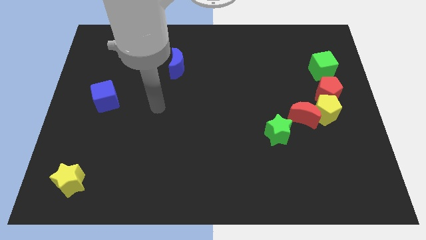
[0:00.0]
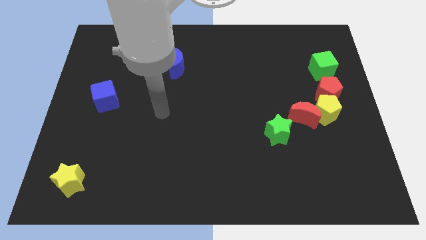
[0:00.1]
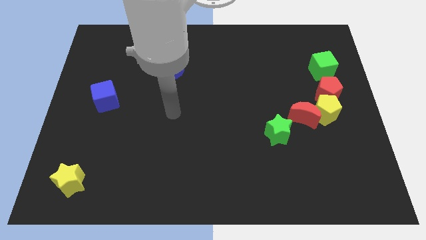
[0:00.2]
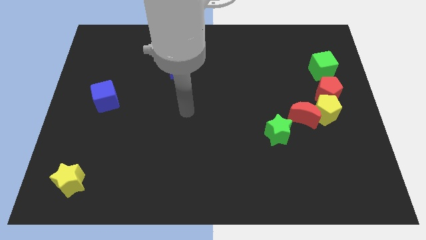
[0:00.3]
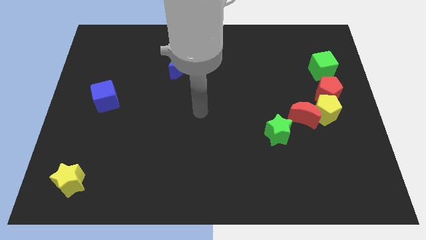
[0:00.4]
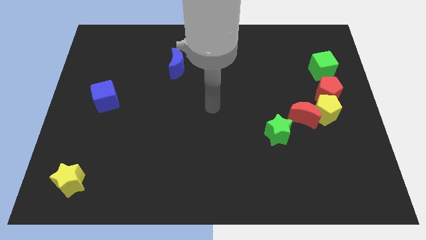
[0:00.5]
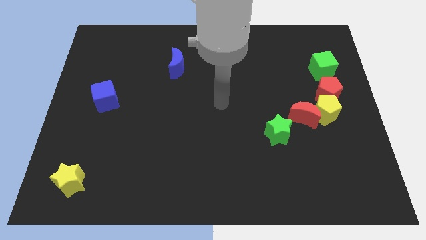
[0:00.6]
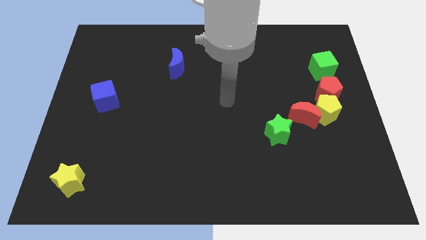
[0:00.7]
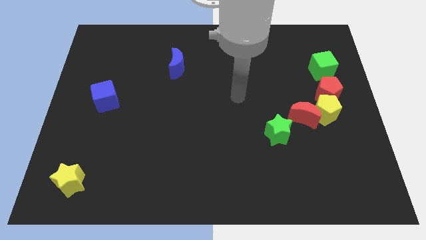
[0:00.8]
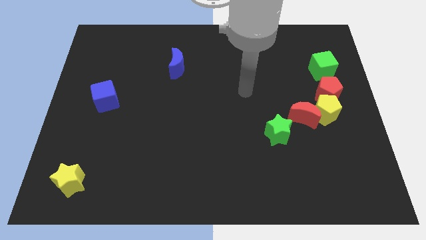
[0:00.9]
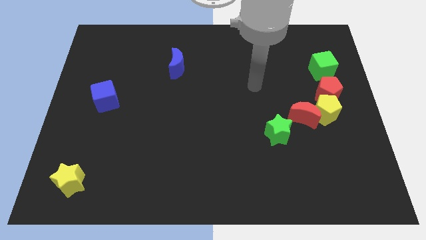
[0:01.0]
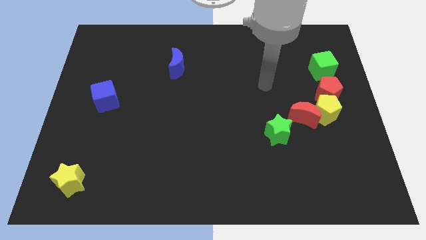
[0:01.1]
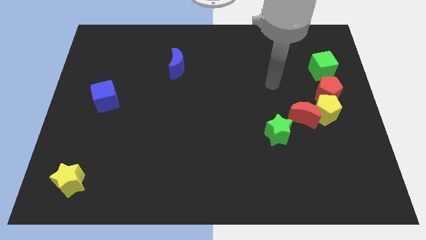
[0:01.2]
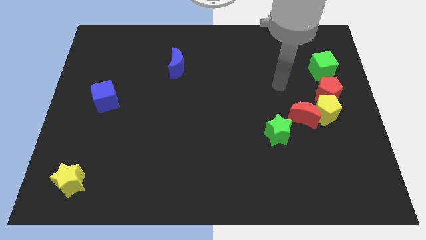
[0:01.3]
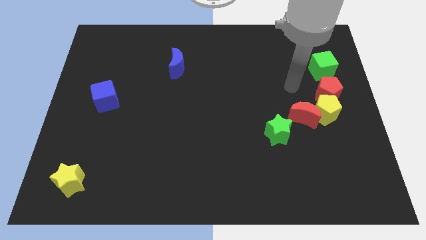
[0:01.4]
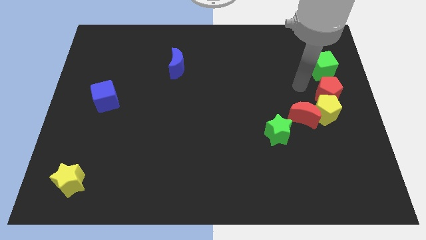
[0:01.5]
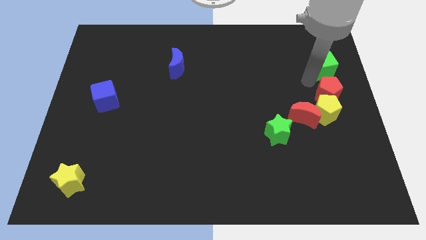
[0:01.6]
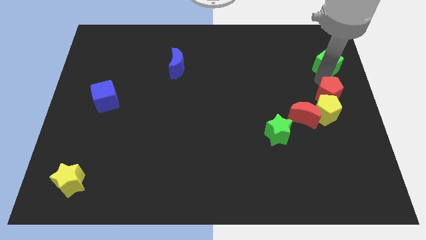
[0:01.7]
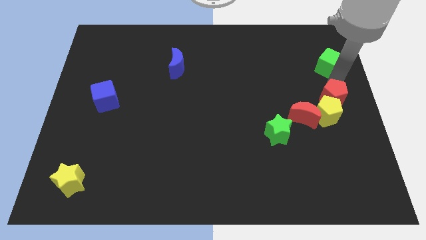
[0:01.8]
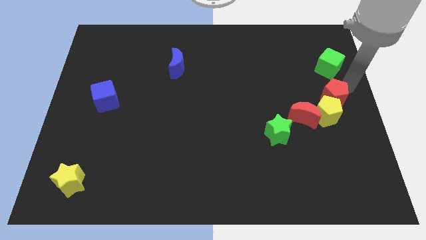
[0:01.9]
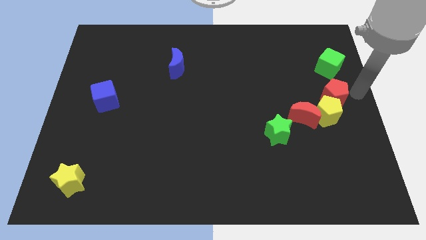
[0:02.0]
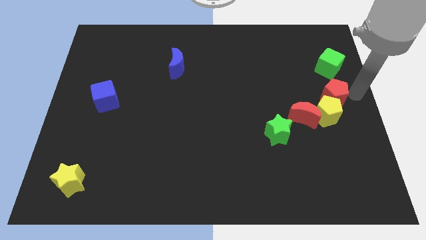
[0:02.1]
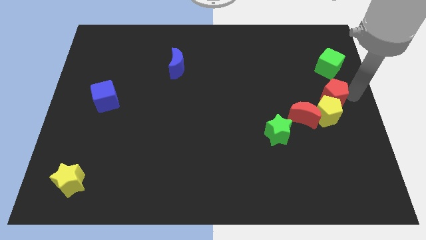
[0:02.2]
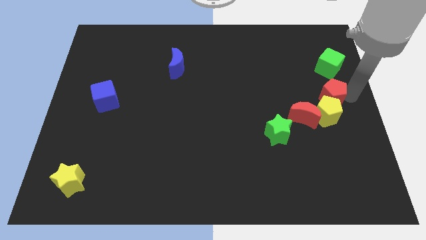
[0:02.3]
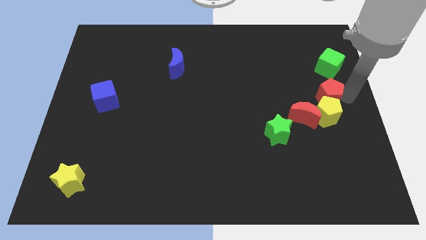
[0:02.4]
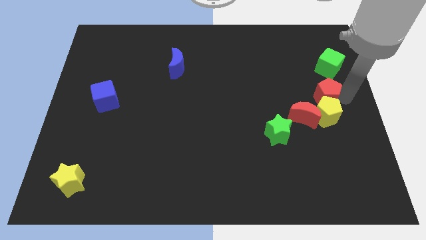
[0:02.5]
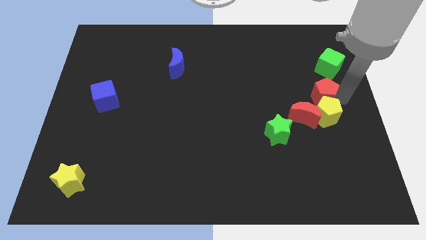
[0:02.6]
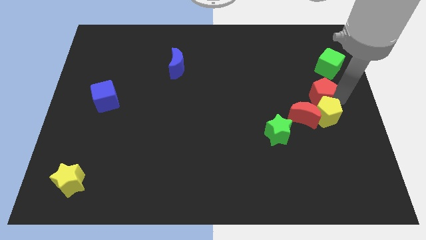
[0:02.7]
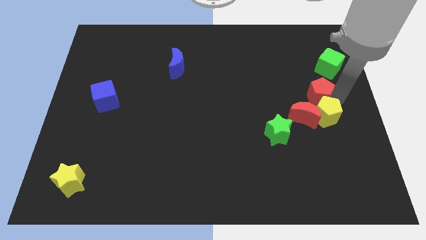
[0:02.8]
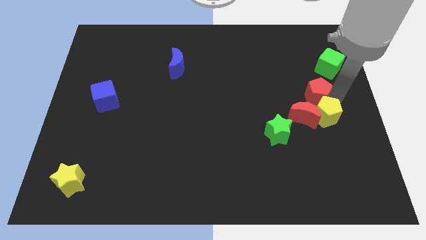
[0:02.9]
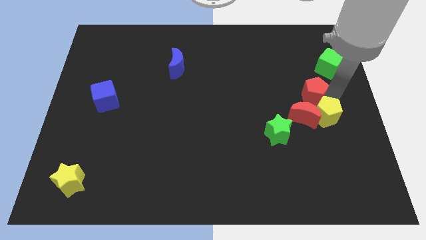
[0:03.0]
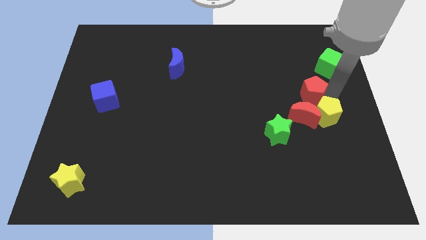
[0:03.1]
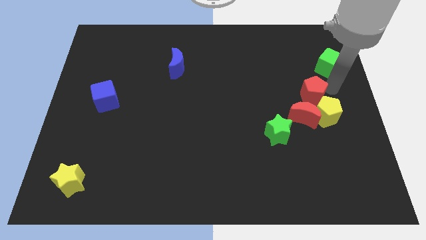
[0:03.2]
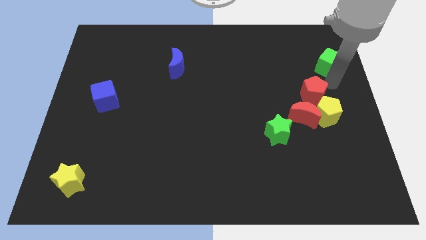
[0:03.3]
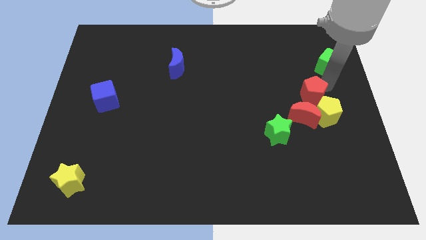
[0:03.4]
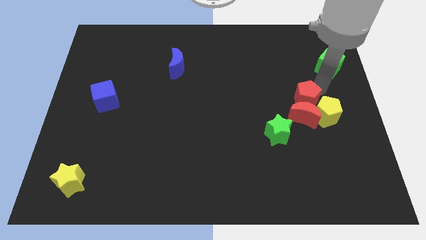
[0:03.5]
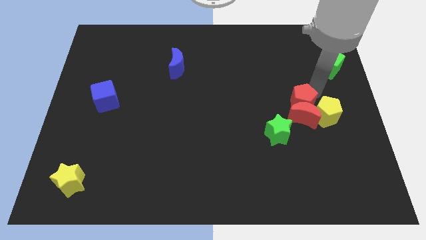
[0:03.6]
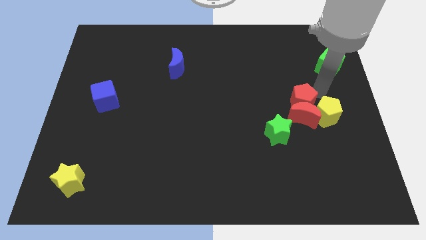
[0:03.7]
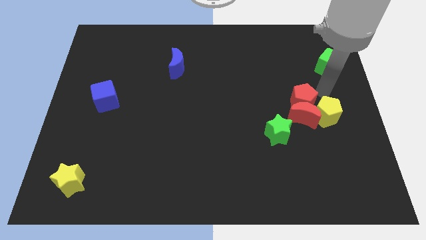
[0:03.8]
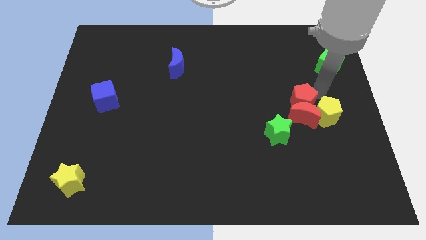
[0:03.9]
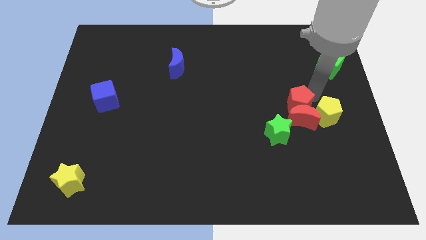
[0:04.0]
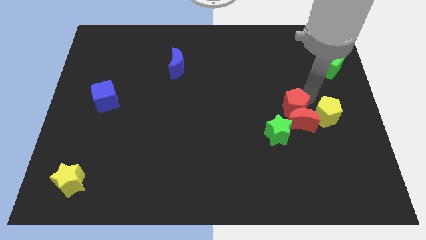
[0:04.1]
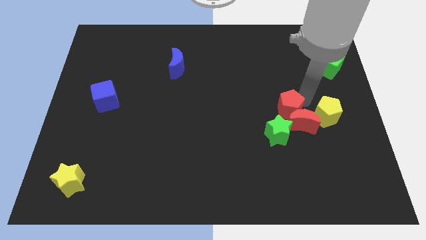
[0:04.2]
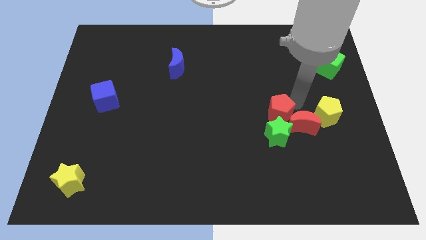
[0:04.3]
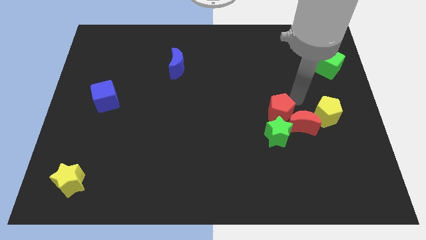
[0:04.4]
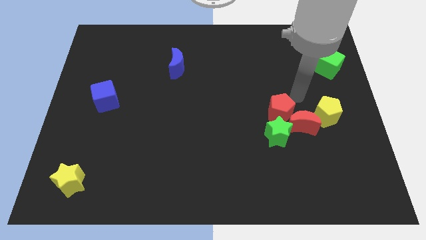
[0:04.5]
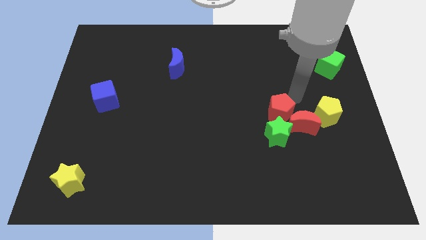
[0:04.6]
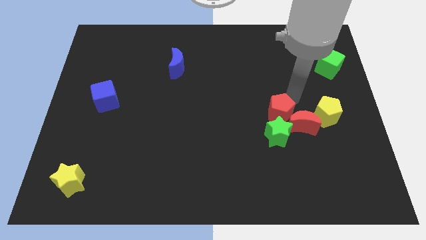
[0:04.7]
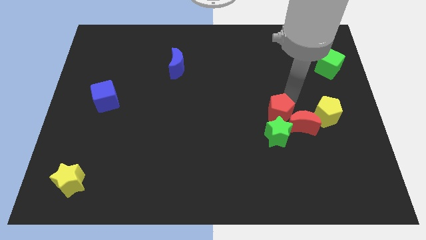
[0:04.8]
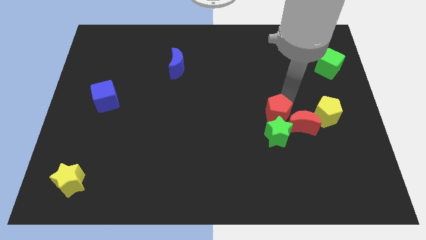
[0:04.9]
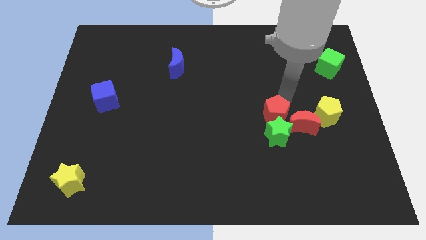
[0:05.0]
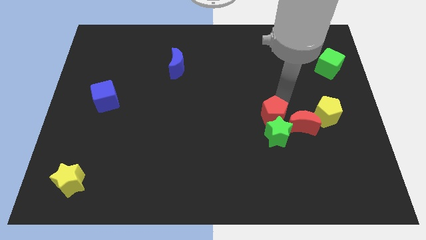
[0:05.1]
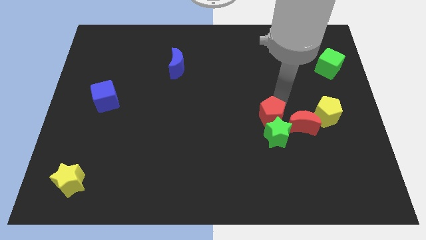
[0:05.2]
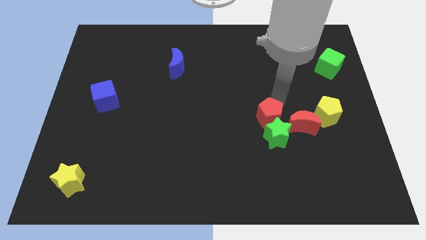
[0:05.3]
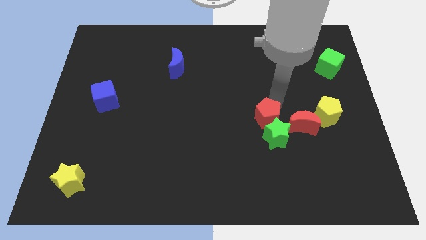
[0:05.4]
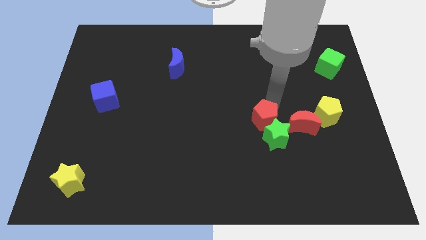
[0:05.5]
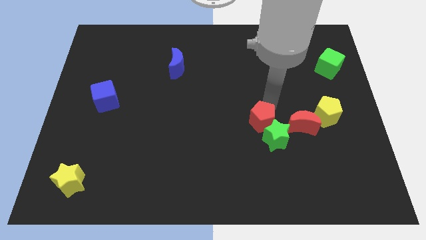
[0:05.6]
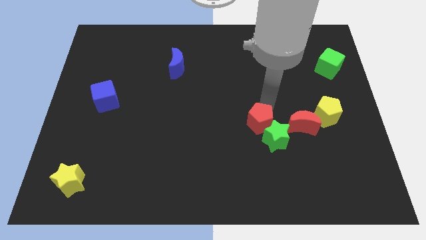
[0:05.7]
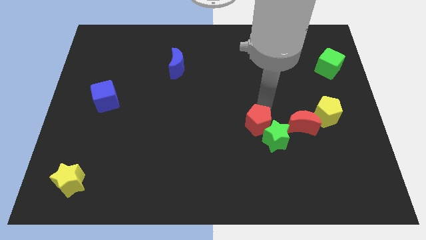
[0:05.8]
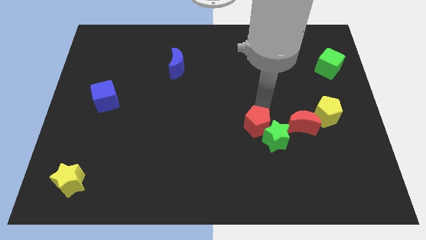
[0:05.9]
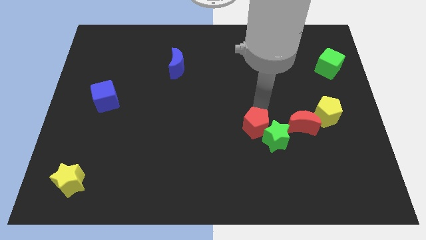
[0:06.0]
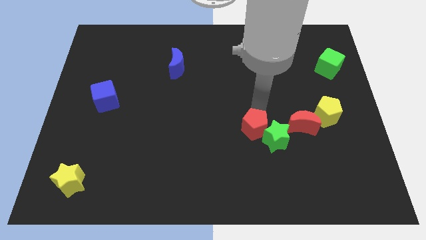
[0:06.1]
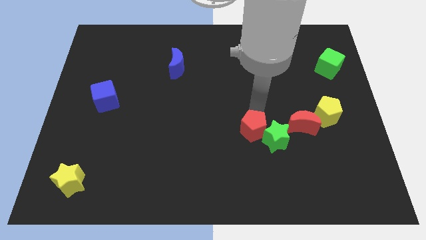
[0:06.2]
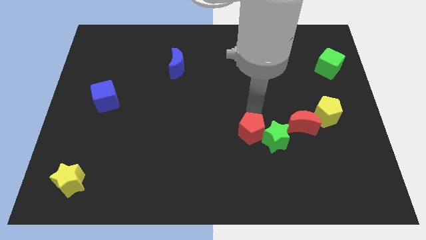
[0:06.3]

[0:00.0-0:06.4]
move the red pentagon downwards and then to the left

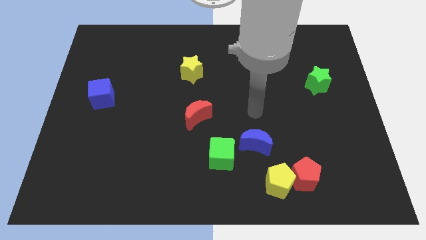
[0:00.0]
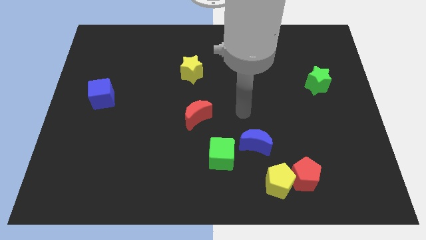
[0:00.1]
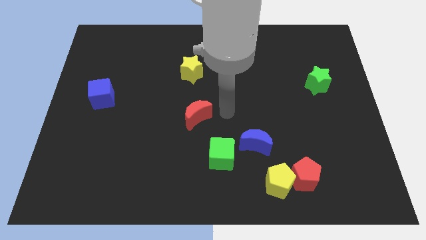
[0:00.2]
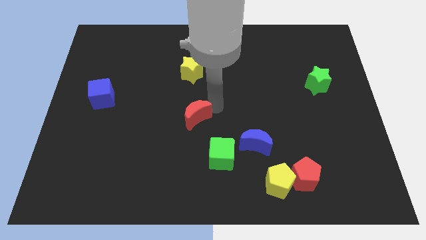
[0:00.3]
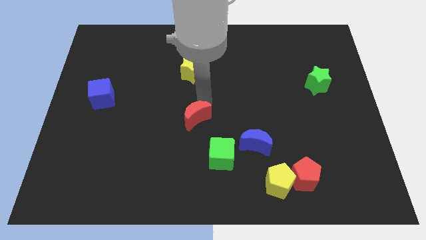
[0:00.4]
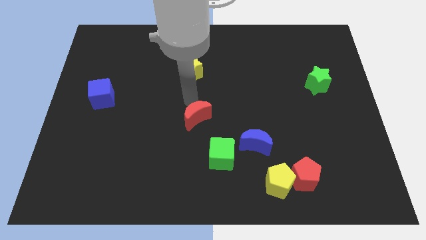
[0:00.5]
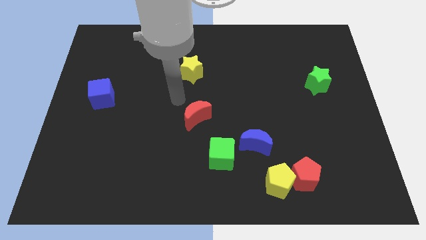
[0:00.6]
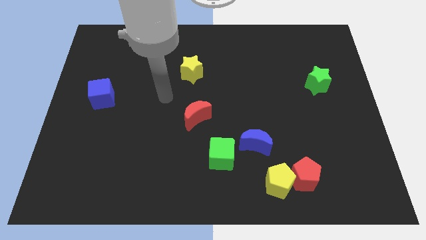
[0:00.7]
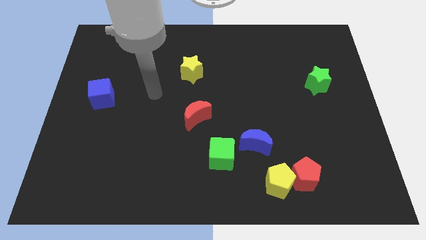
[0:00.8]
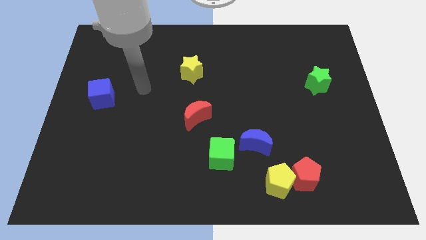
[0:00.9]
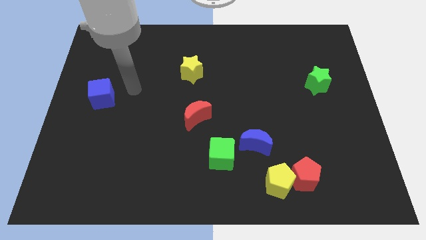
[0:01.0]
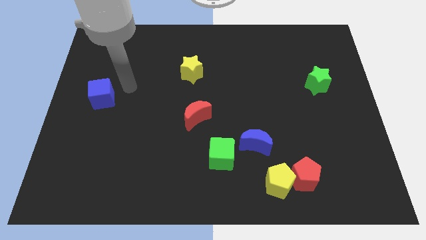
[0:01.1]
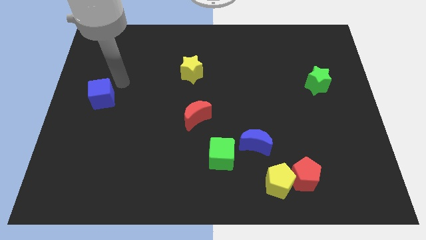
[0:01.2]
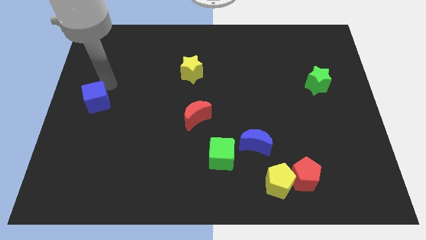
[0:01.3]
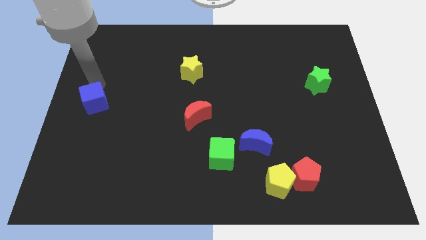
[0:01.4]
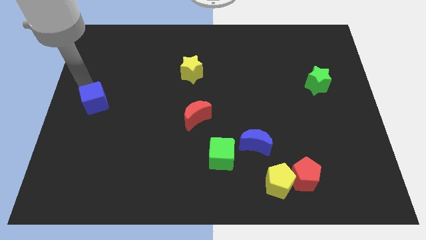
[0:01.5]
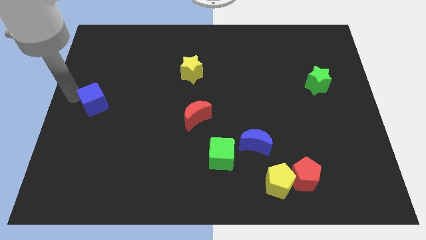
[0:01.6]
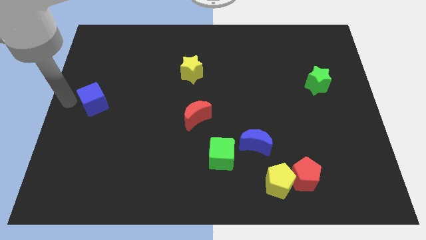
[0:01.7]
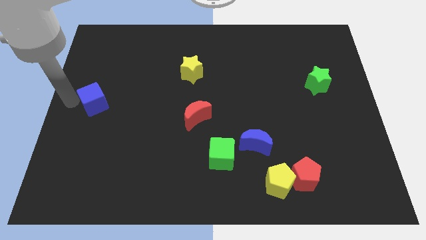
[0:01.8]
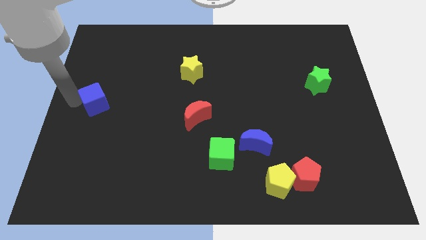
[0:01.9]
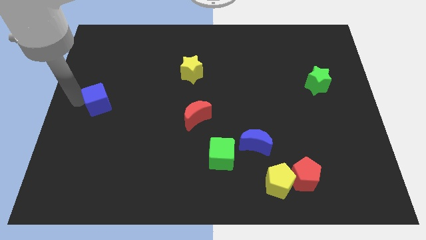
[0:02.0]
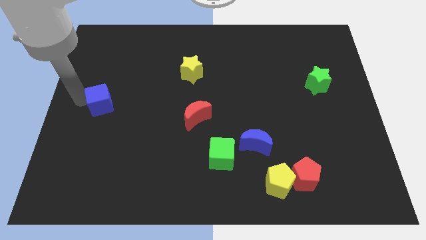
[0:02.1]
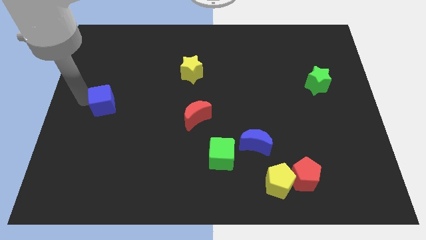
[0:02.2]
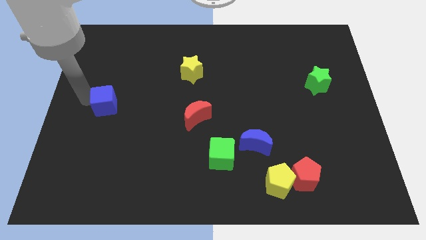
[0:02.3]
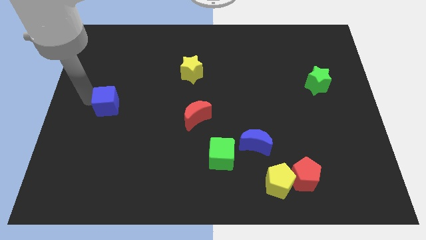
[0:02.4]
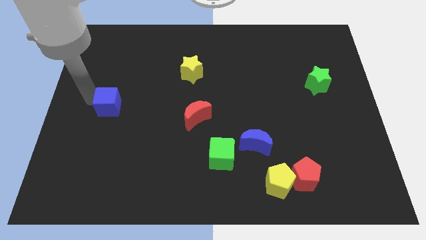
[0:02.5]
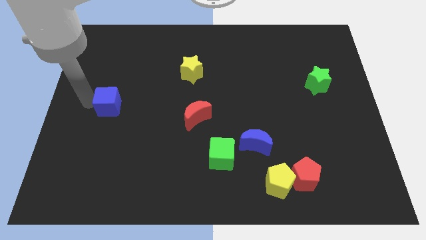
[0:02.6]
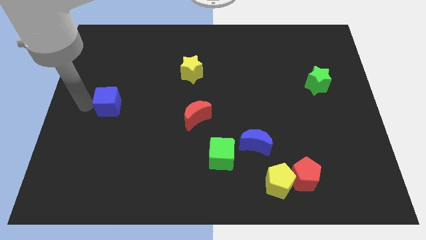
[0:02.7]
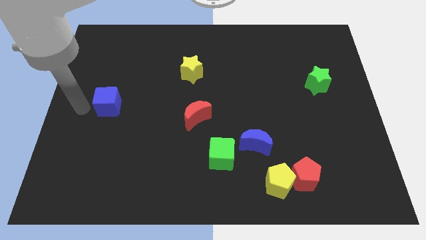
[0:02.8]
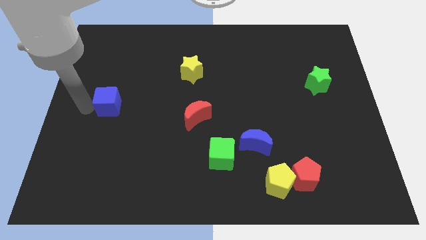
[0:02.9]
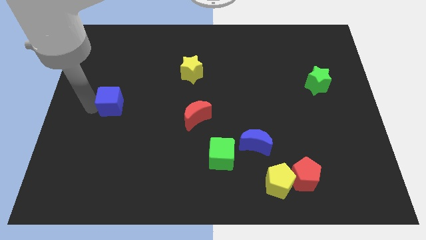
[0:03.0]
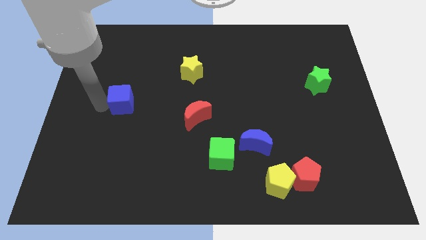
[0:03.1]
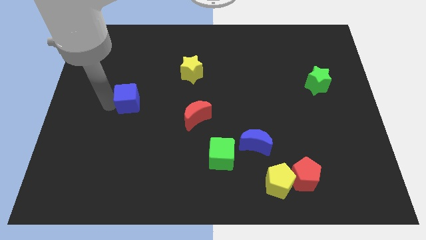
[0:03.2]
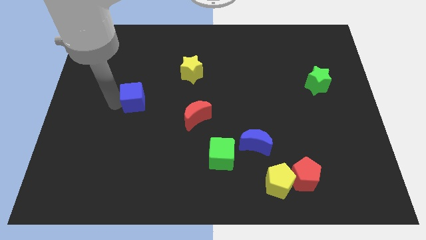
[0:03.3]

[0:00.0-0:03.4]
move the blue cube to the right a little bit
